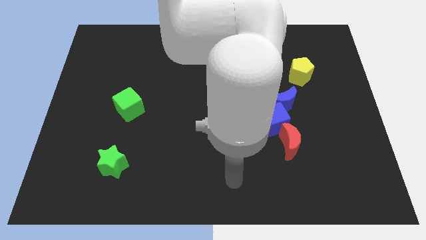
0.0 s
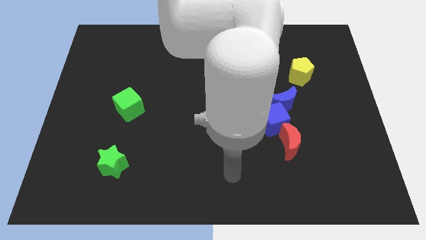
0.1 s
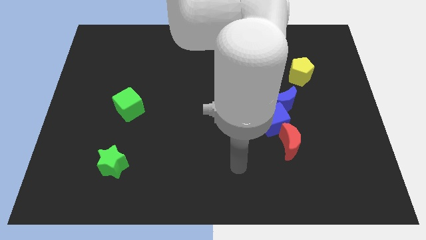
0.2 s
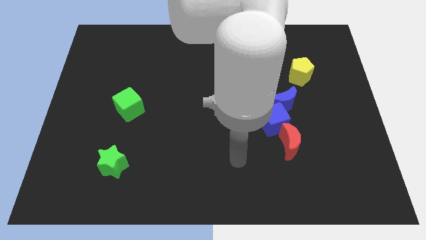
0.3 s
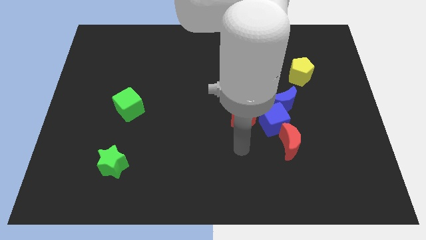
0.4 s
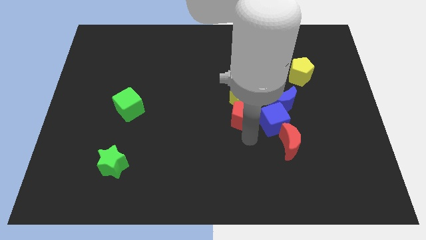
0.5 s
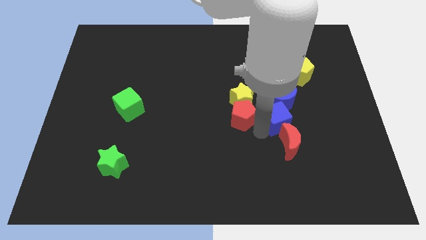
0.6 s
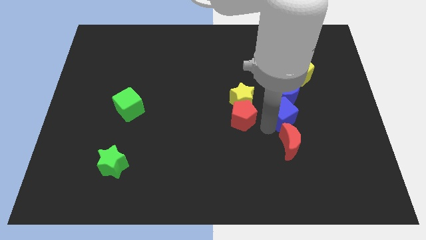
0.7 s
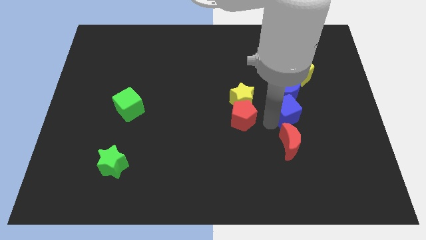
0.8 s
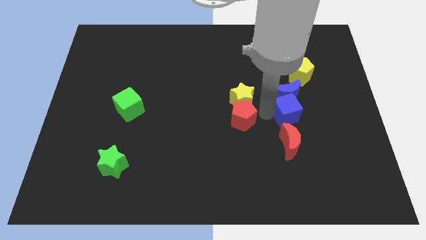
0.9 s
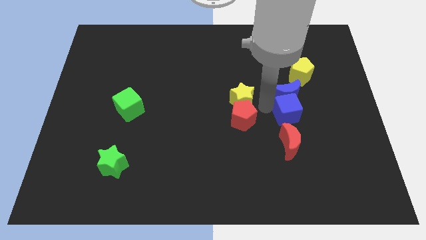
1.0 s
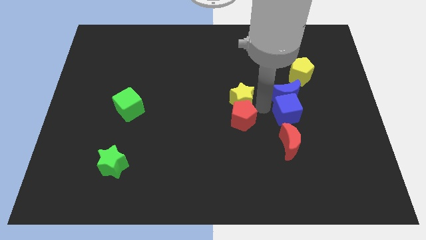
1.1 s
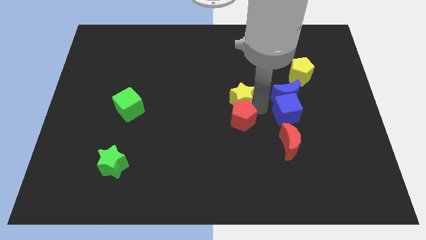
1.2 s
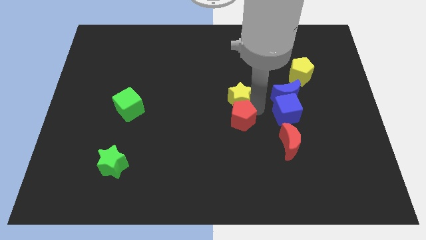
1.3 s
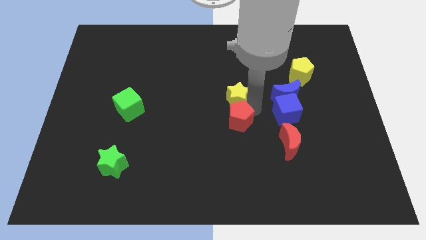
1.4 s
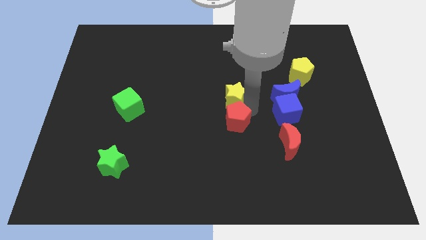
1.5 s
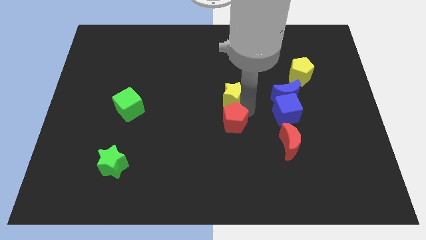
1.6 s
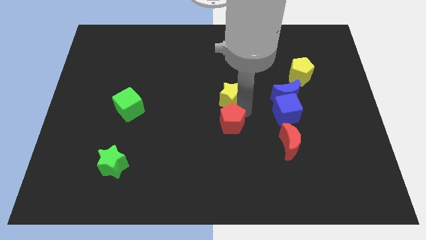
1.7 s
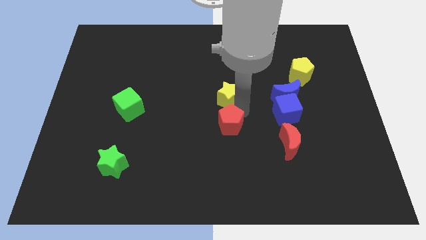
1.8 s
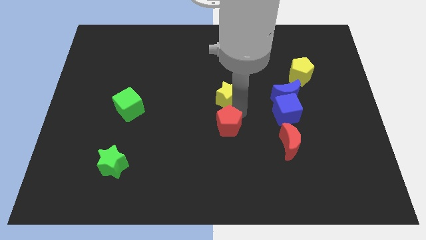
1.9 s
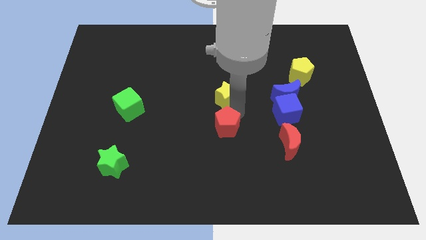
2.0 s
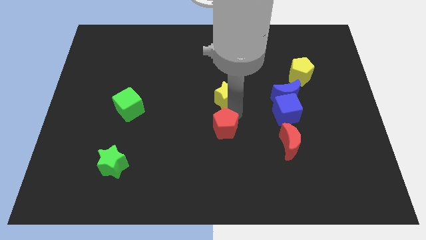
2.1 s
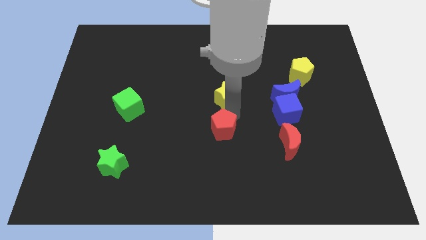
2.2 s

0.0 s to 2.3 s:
separate the red pentagon from the yellow star and blue cube

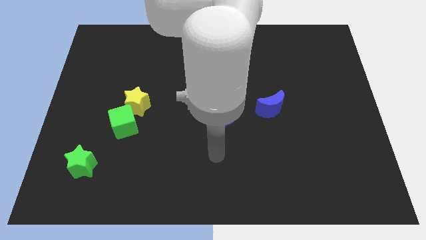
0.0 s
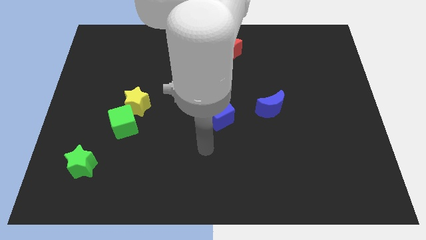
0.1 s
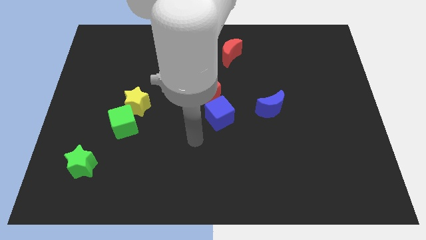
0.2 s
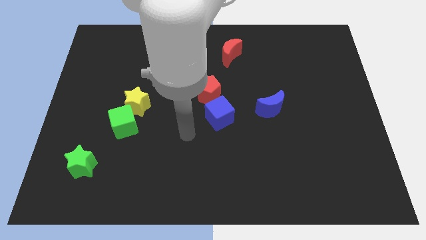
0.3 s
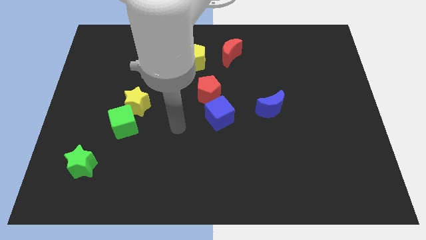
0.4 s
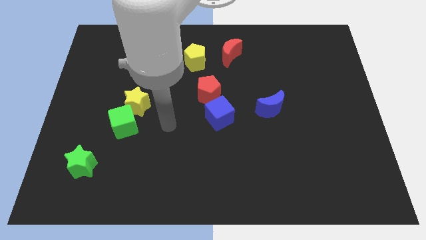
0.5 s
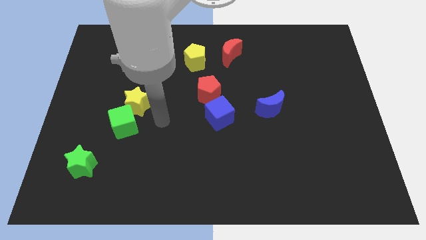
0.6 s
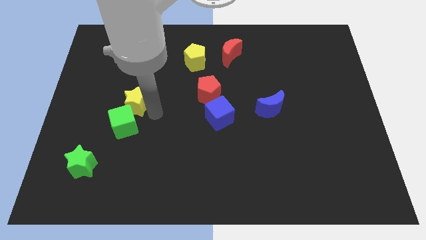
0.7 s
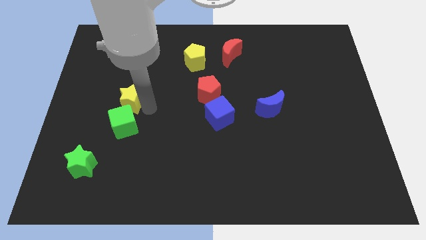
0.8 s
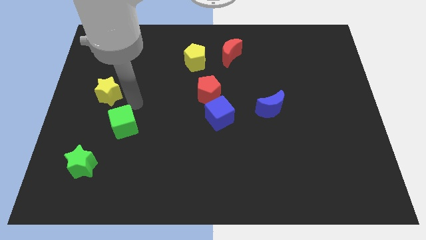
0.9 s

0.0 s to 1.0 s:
move the green cube away from the yellow star

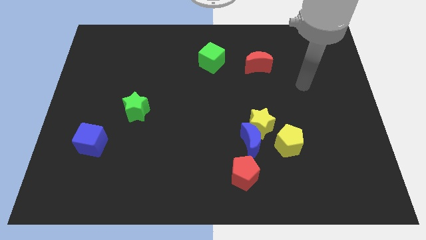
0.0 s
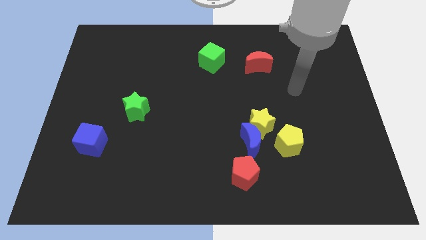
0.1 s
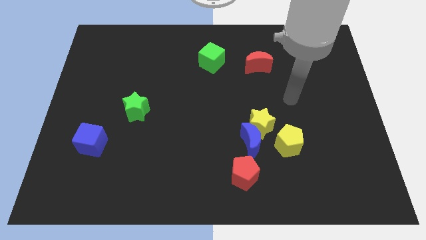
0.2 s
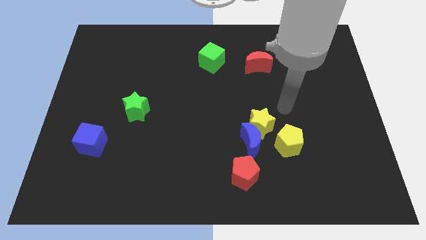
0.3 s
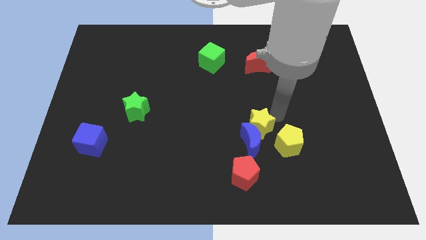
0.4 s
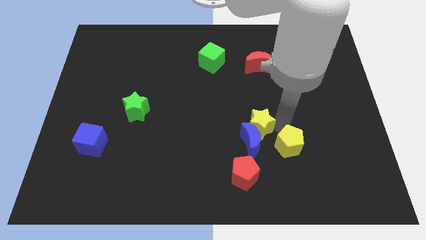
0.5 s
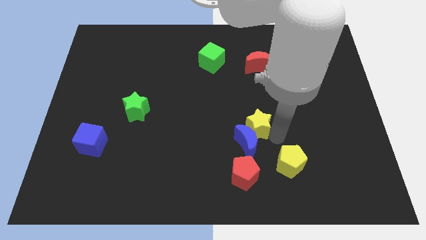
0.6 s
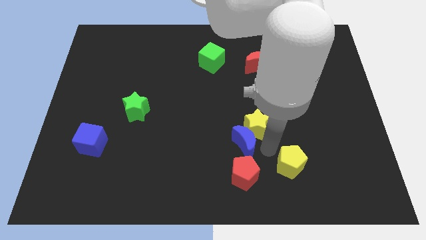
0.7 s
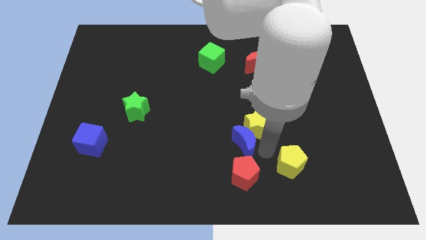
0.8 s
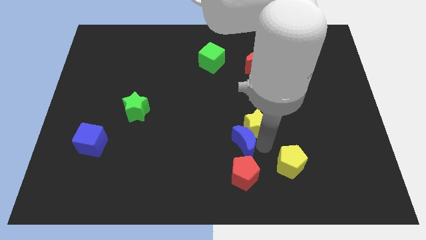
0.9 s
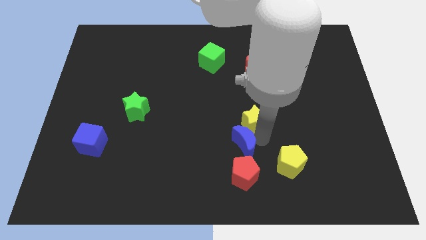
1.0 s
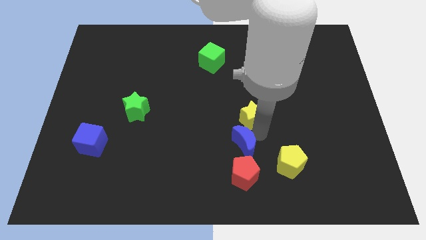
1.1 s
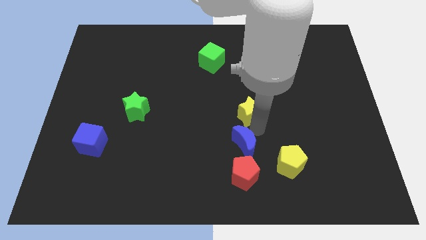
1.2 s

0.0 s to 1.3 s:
separate the yellow star from the blue moon and yellow pentagon

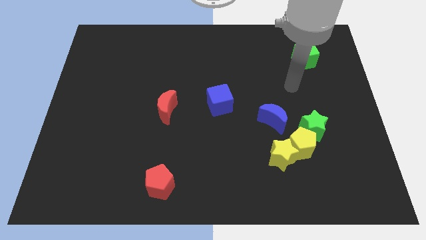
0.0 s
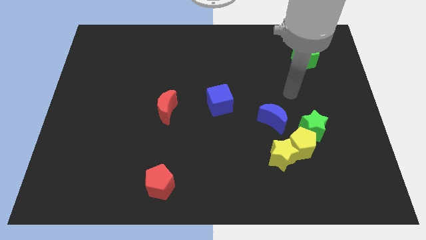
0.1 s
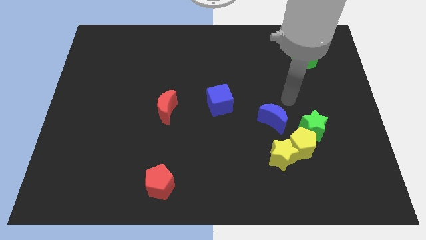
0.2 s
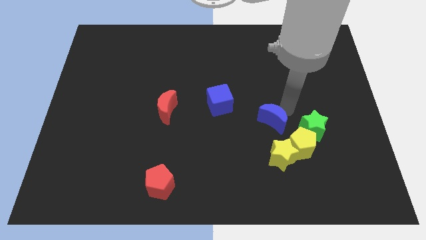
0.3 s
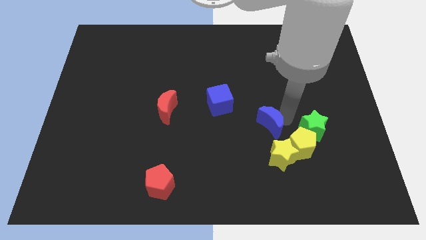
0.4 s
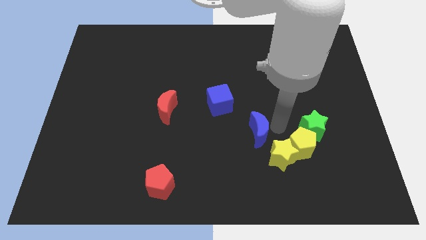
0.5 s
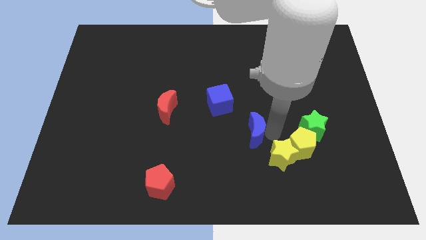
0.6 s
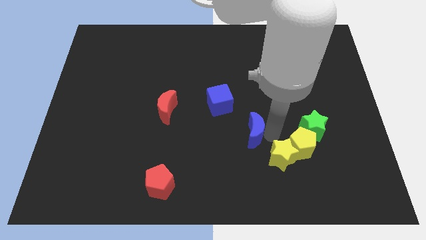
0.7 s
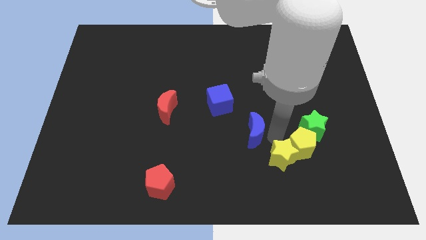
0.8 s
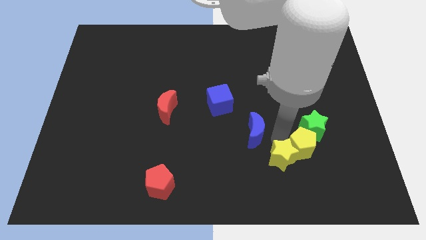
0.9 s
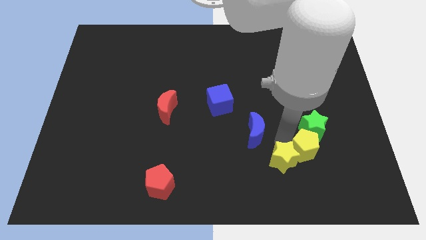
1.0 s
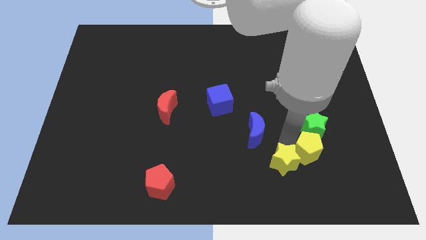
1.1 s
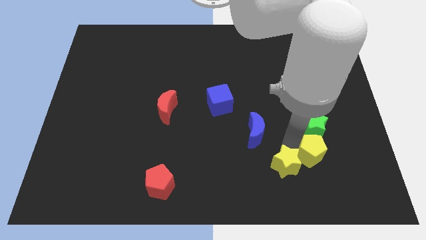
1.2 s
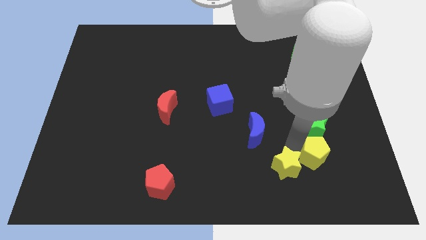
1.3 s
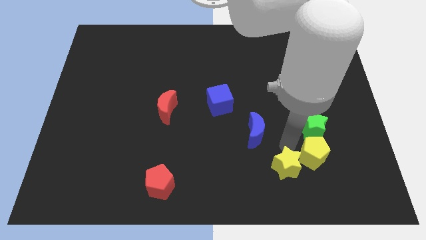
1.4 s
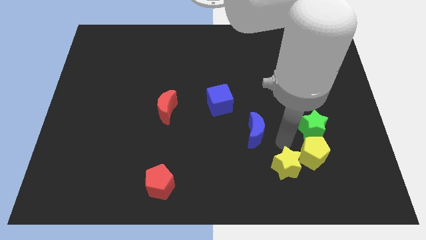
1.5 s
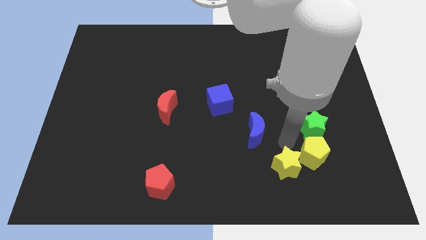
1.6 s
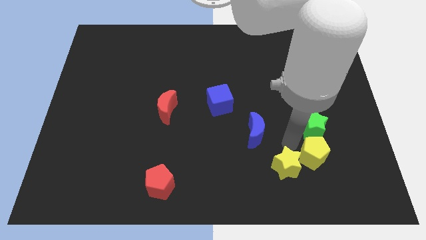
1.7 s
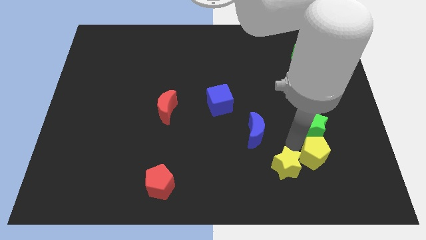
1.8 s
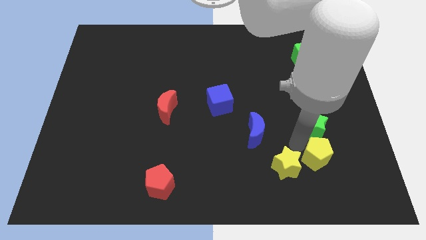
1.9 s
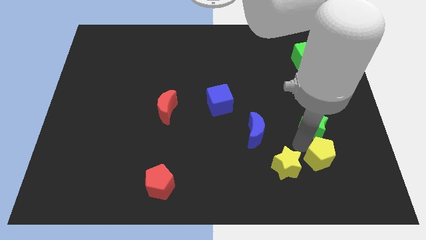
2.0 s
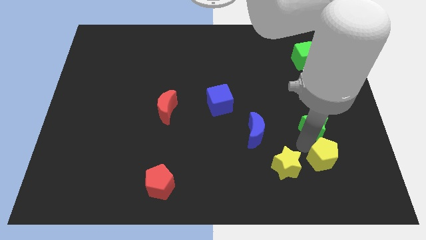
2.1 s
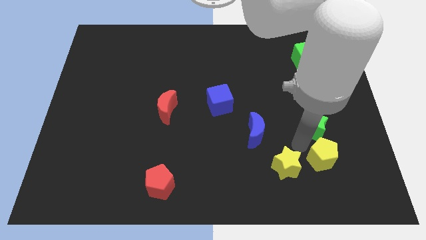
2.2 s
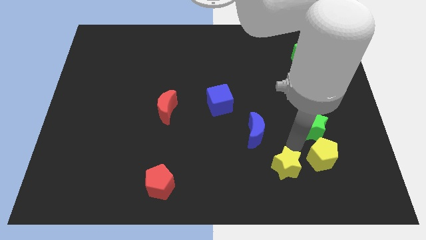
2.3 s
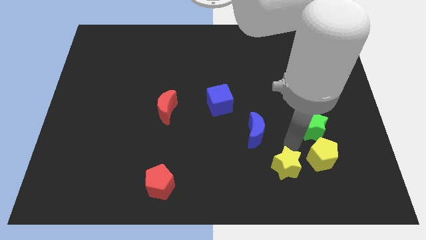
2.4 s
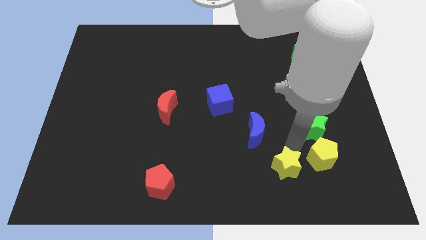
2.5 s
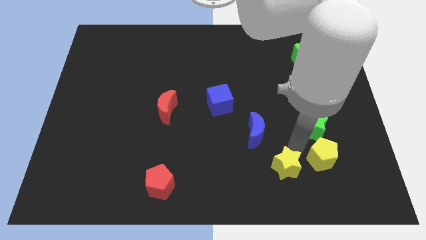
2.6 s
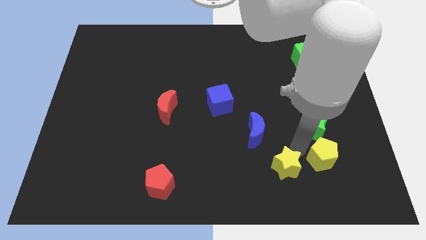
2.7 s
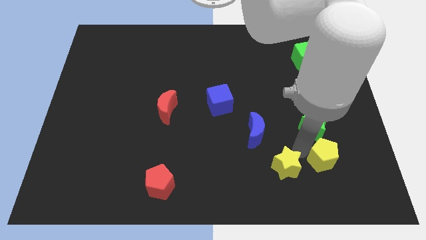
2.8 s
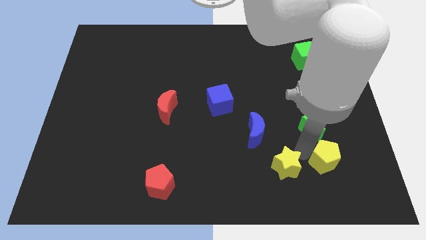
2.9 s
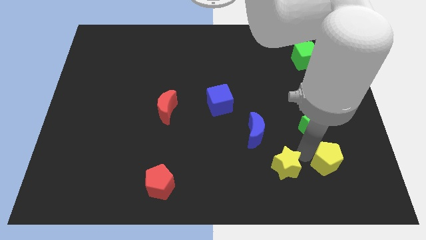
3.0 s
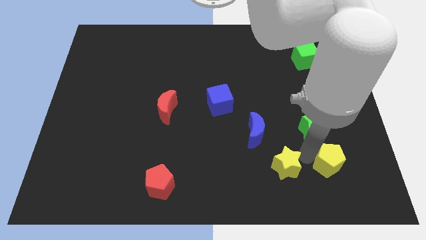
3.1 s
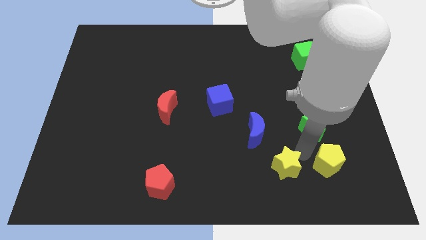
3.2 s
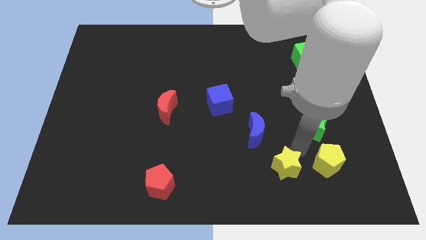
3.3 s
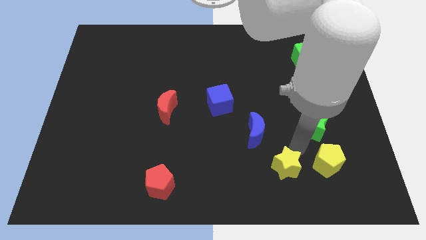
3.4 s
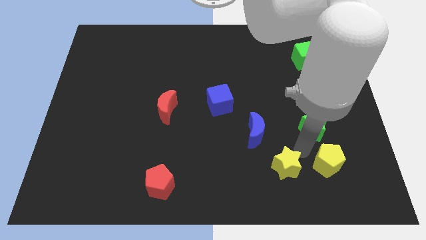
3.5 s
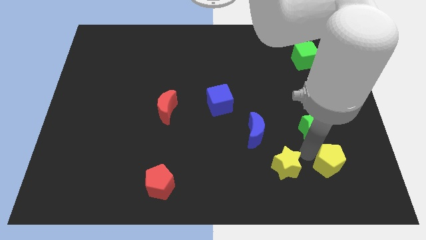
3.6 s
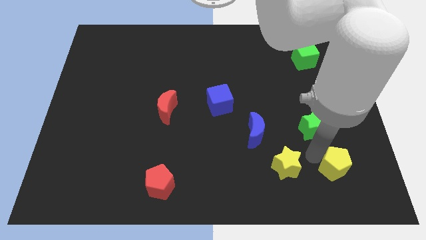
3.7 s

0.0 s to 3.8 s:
separate the yellow pentagon from the group

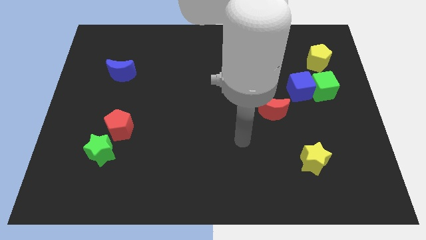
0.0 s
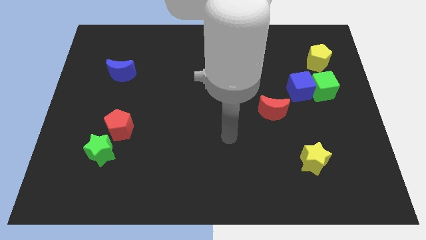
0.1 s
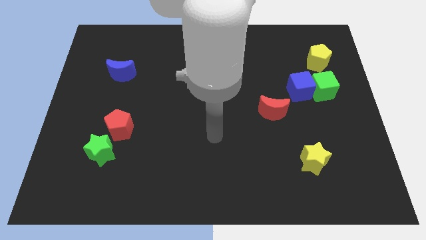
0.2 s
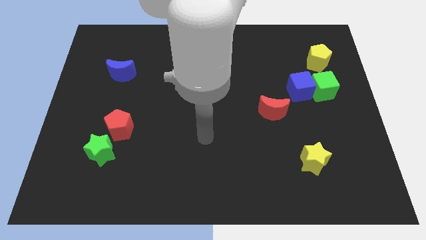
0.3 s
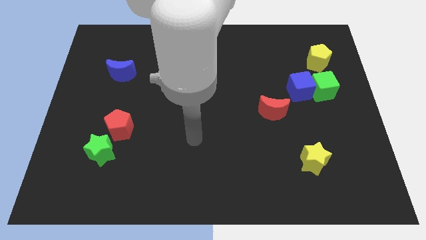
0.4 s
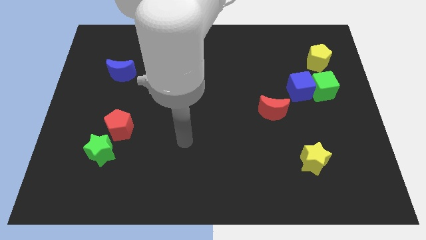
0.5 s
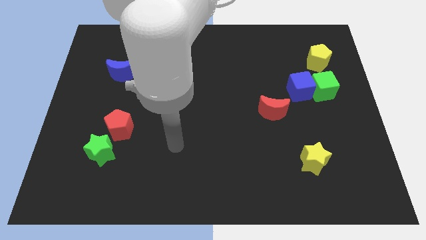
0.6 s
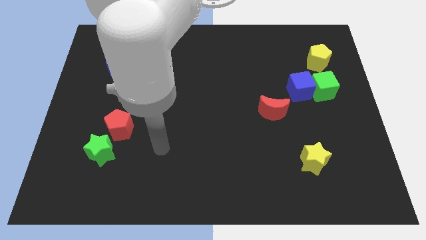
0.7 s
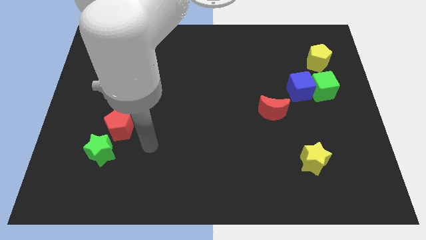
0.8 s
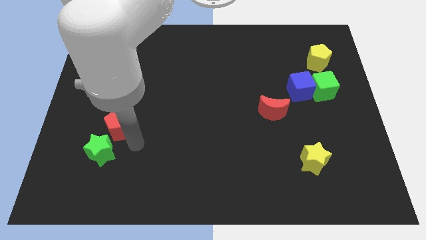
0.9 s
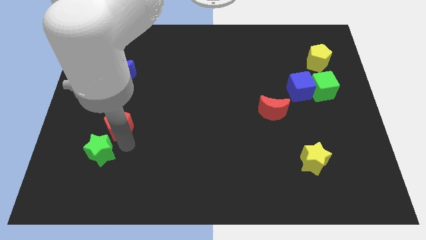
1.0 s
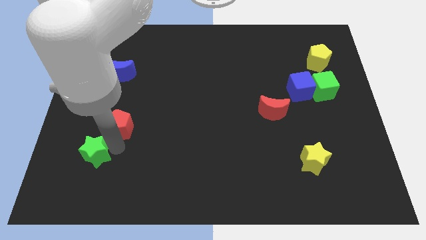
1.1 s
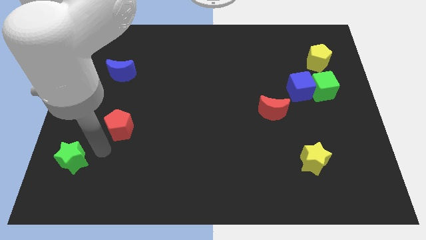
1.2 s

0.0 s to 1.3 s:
pull the red pentagon apart from the green star
